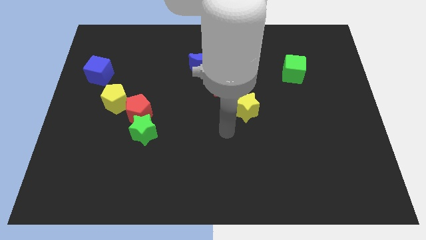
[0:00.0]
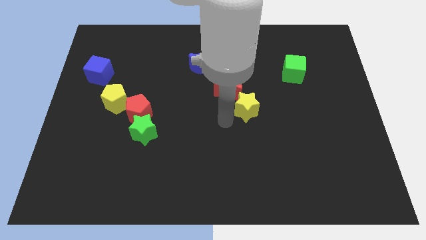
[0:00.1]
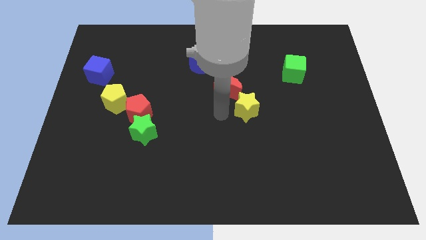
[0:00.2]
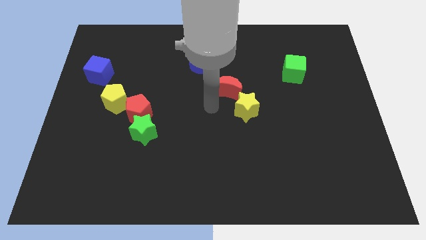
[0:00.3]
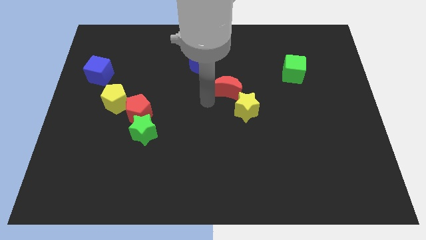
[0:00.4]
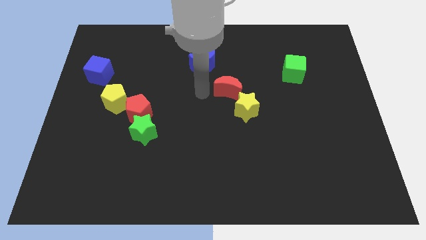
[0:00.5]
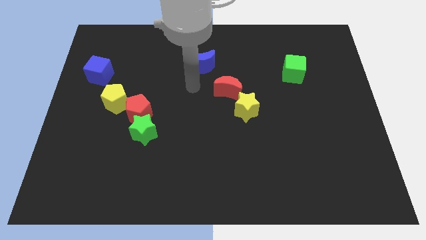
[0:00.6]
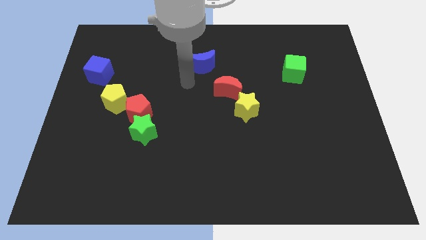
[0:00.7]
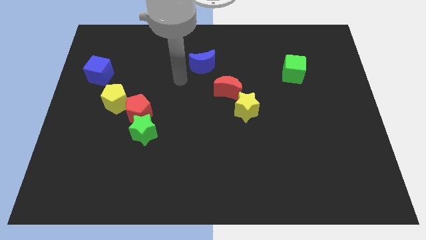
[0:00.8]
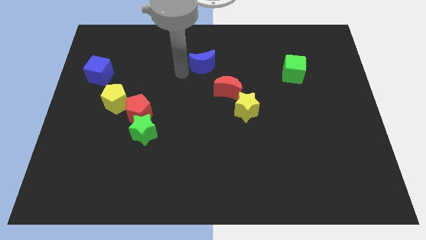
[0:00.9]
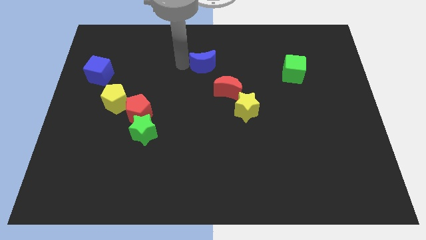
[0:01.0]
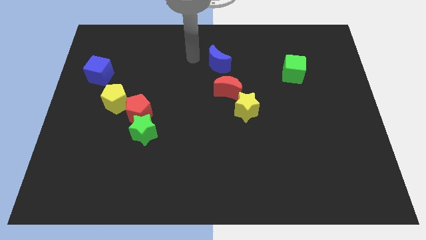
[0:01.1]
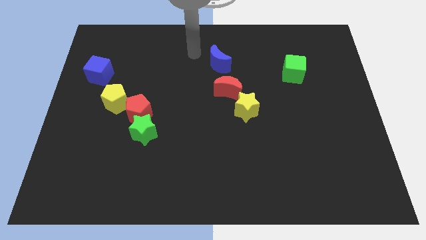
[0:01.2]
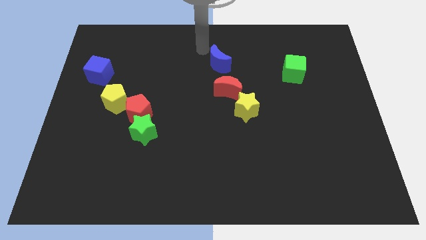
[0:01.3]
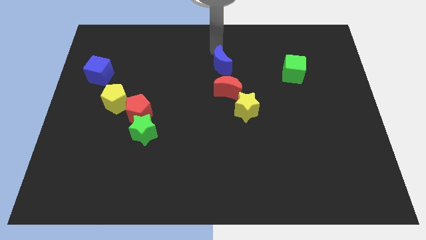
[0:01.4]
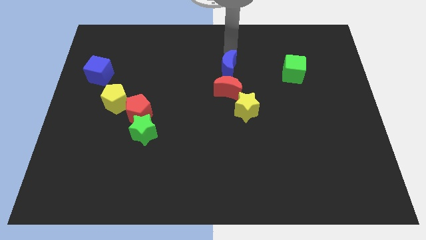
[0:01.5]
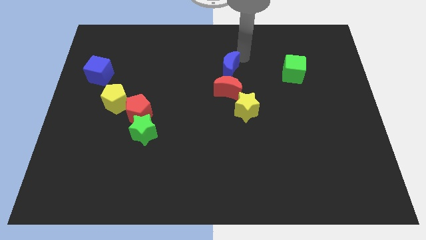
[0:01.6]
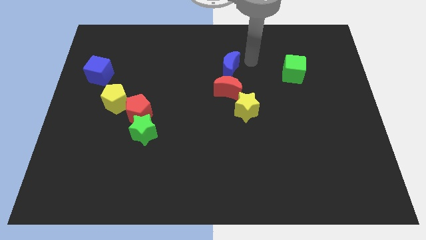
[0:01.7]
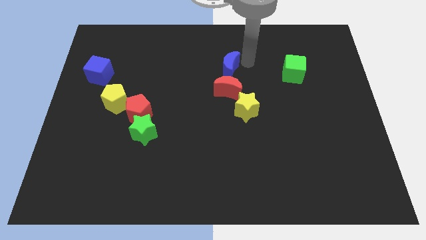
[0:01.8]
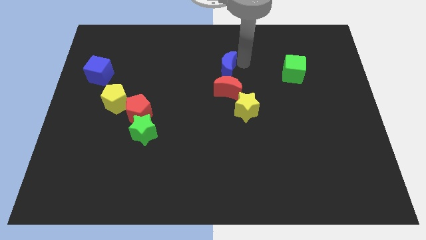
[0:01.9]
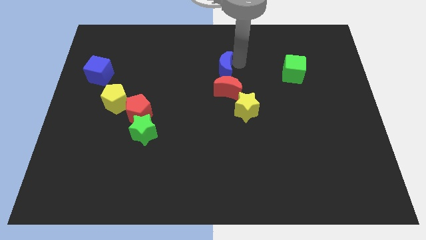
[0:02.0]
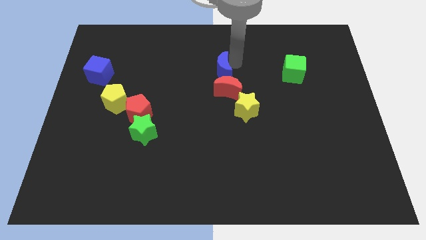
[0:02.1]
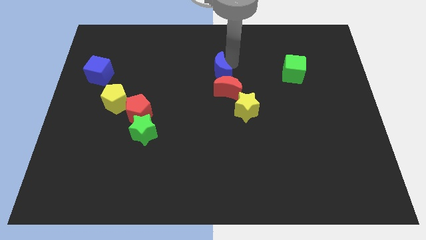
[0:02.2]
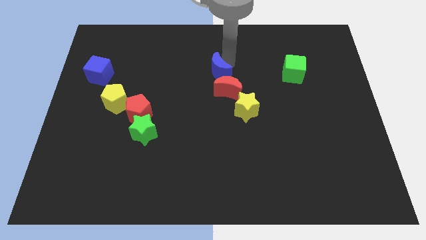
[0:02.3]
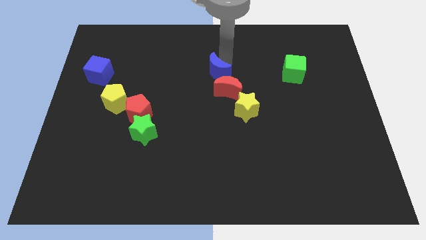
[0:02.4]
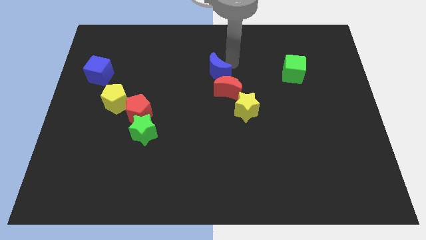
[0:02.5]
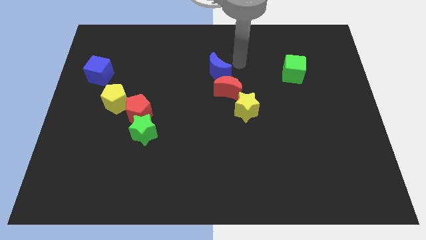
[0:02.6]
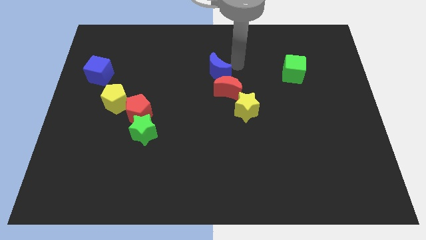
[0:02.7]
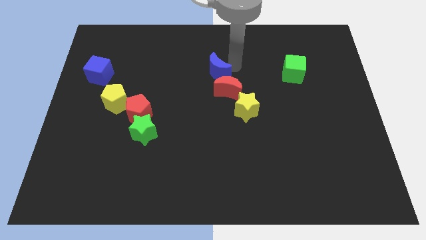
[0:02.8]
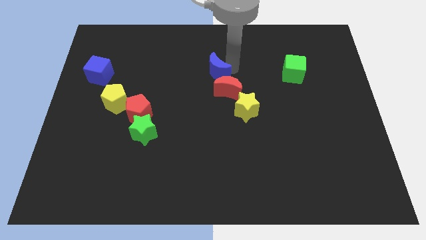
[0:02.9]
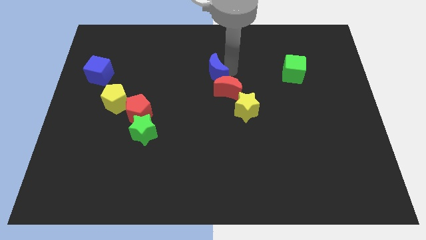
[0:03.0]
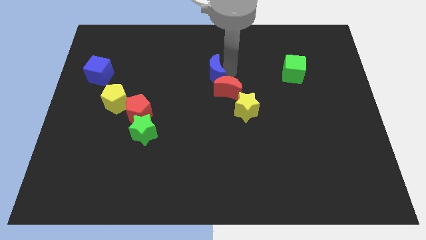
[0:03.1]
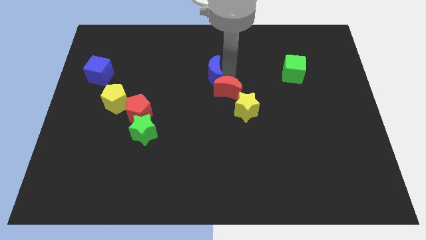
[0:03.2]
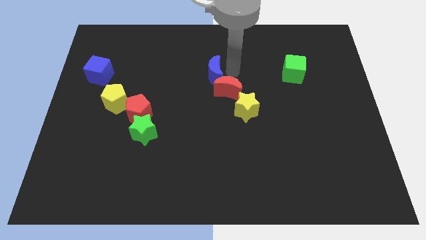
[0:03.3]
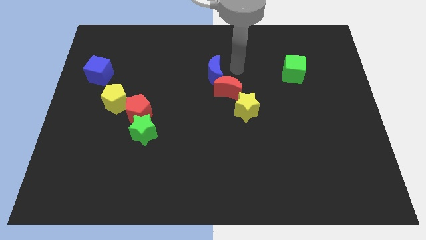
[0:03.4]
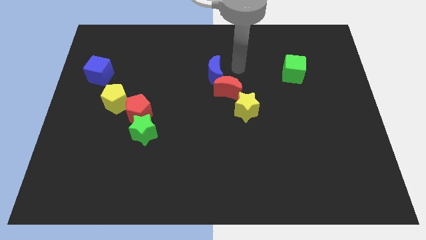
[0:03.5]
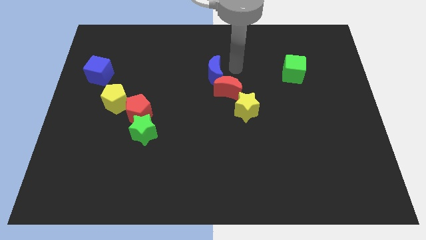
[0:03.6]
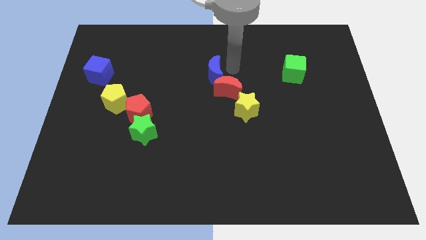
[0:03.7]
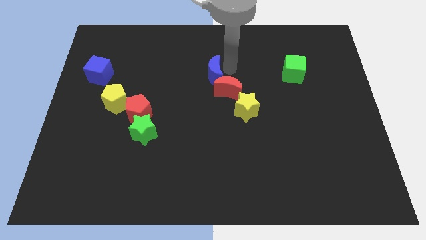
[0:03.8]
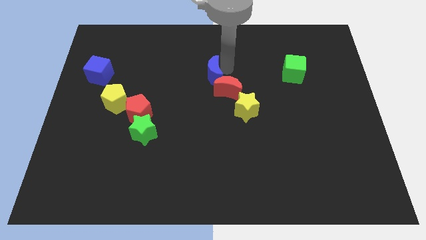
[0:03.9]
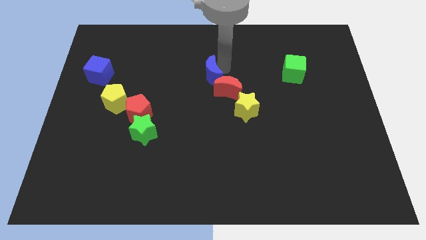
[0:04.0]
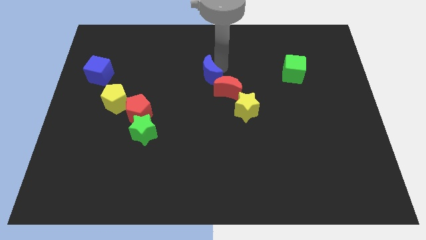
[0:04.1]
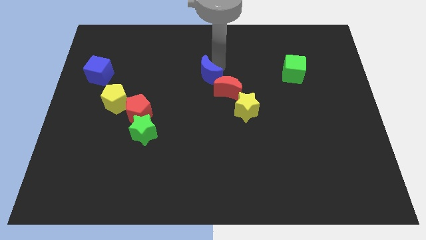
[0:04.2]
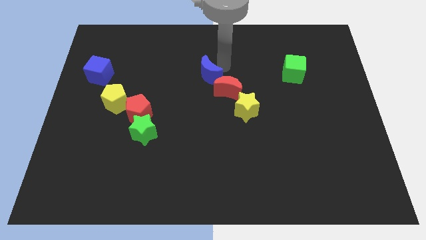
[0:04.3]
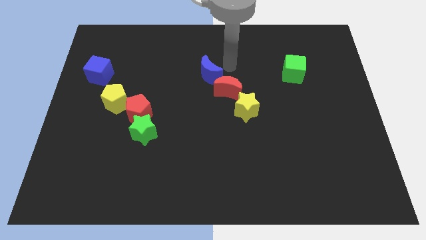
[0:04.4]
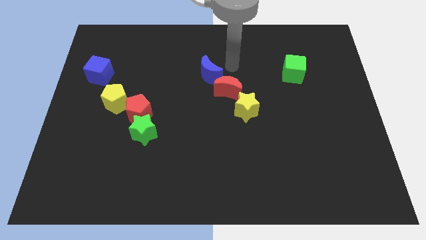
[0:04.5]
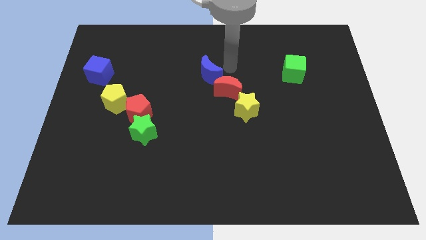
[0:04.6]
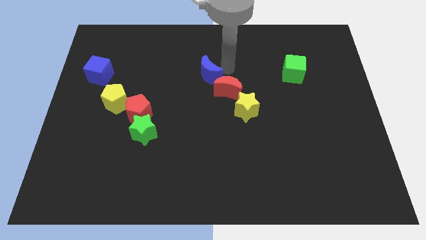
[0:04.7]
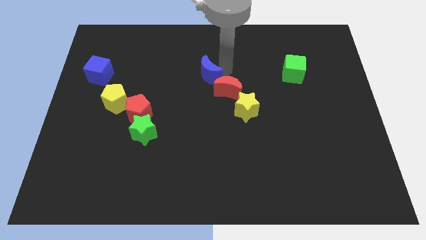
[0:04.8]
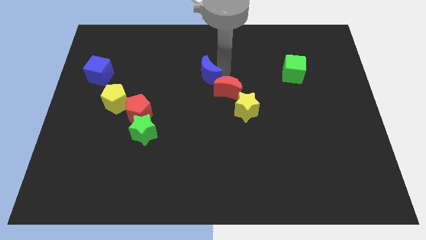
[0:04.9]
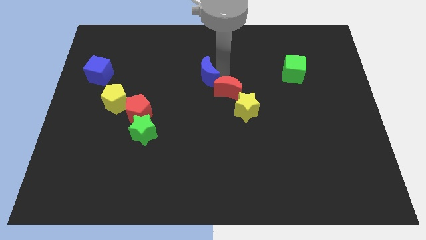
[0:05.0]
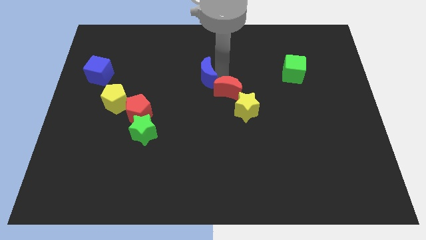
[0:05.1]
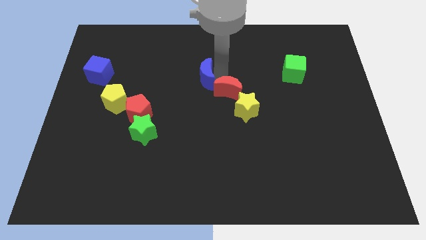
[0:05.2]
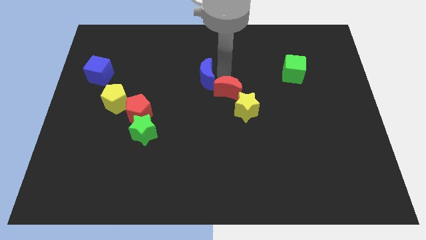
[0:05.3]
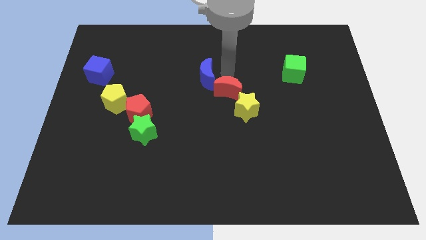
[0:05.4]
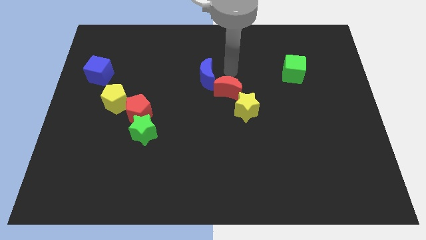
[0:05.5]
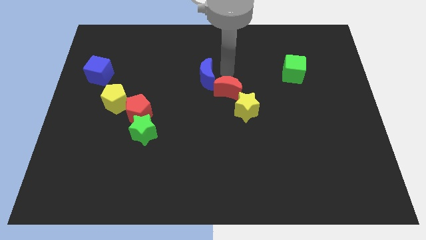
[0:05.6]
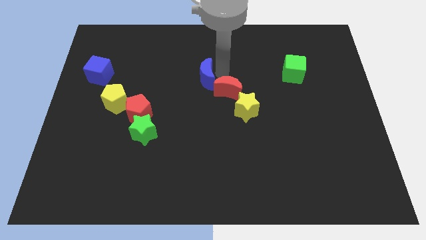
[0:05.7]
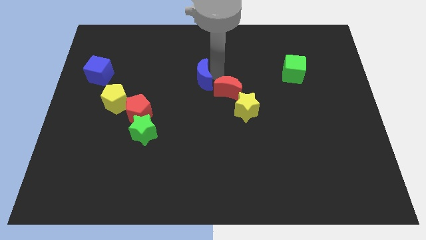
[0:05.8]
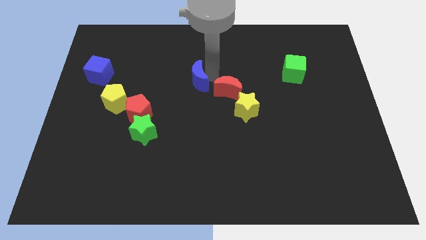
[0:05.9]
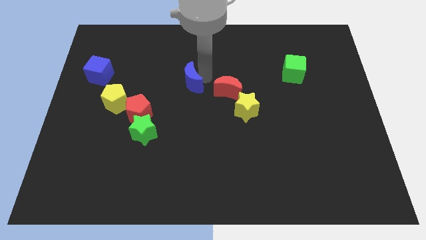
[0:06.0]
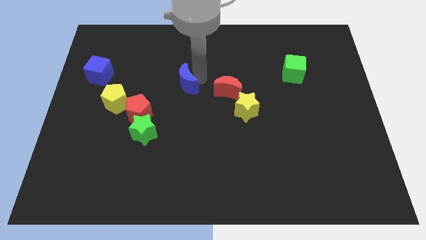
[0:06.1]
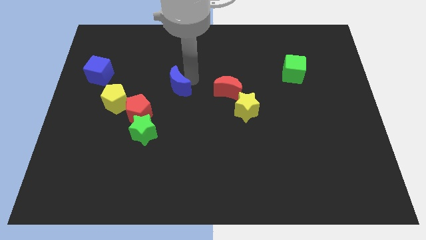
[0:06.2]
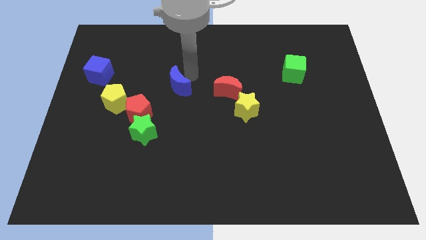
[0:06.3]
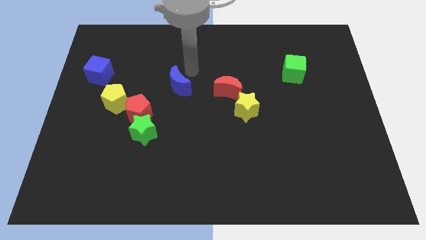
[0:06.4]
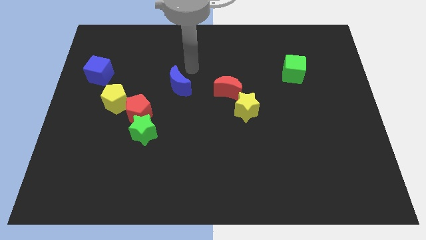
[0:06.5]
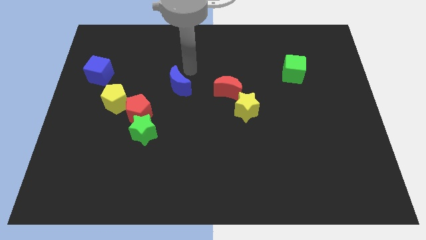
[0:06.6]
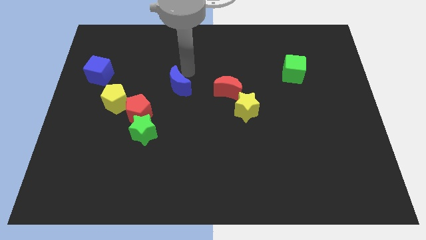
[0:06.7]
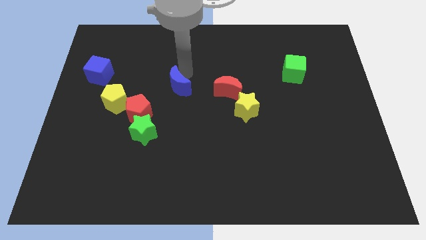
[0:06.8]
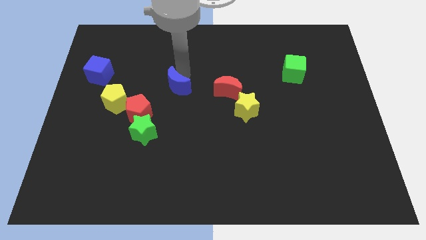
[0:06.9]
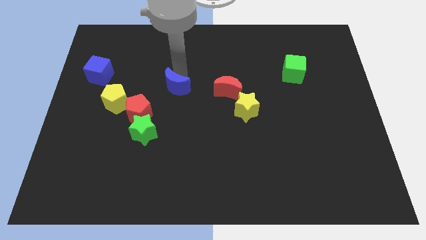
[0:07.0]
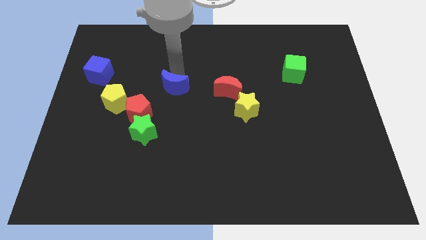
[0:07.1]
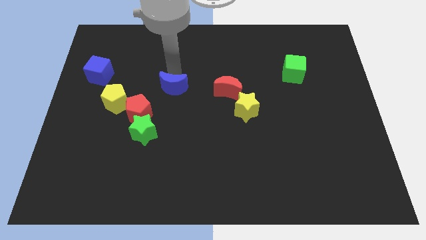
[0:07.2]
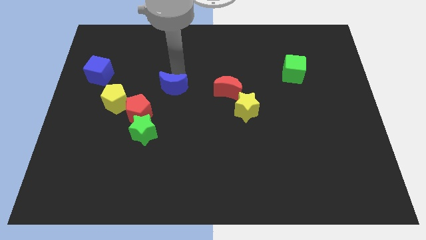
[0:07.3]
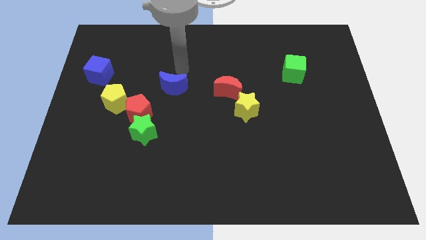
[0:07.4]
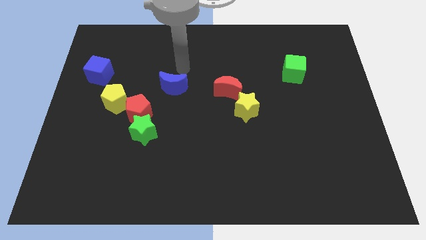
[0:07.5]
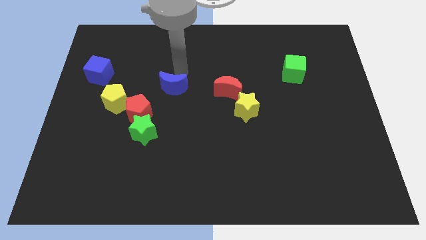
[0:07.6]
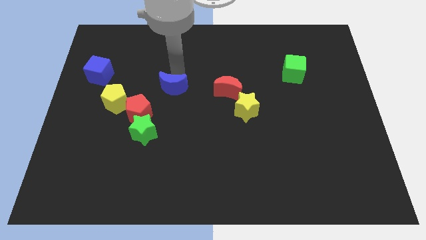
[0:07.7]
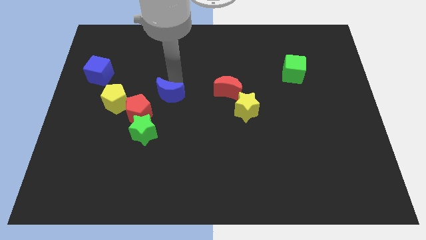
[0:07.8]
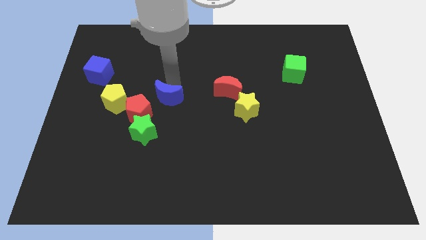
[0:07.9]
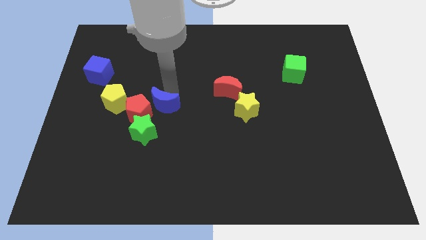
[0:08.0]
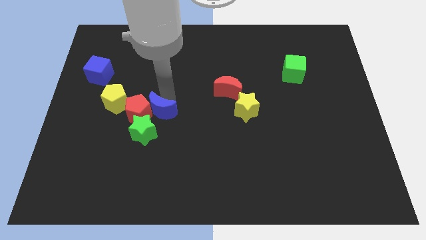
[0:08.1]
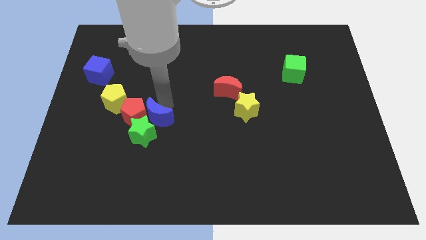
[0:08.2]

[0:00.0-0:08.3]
put the blue moon to the green star
